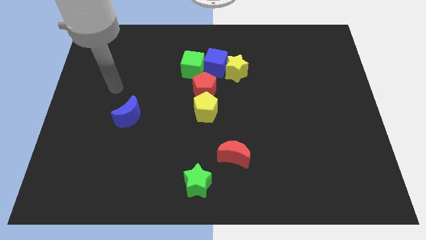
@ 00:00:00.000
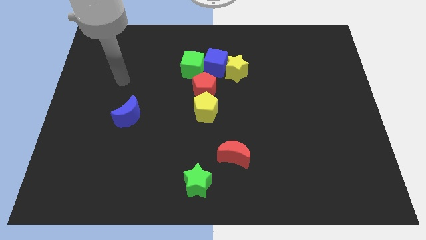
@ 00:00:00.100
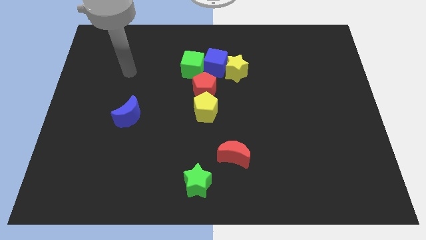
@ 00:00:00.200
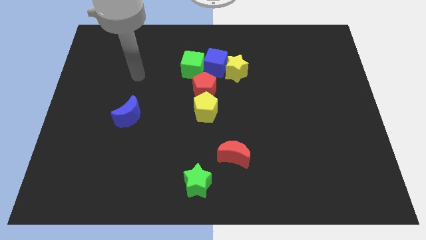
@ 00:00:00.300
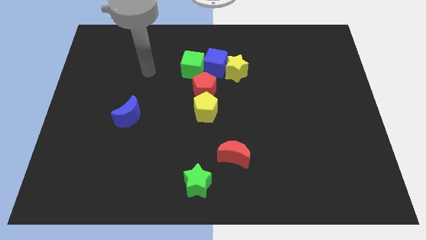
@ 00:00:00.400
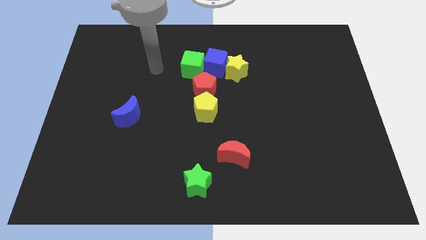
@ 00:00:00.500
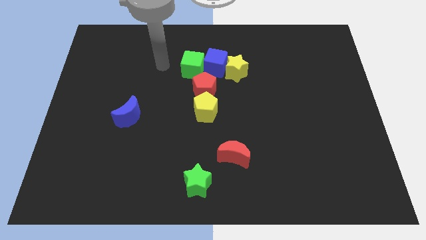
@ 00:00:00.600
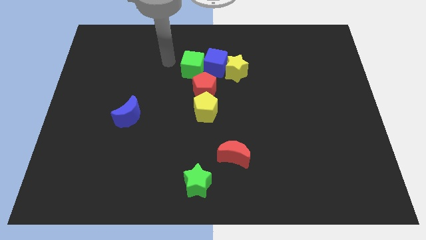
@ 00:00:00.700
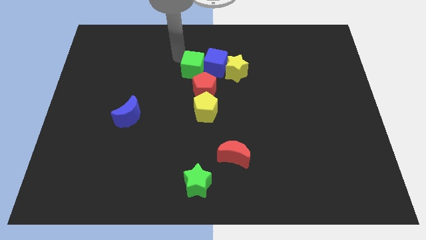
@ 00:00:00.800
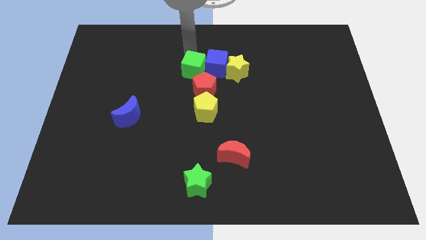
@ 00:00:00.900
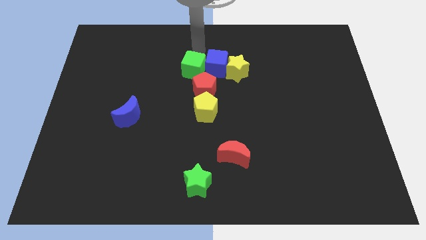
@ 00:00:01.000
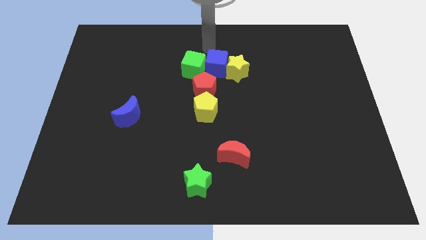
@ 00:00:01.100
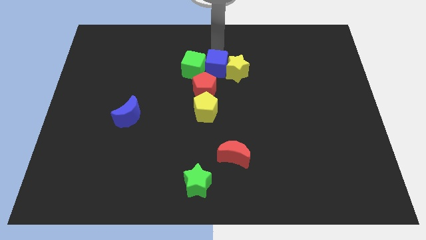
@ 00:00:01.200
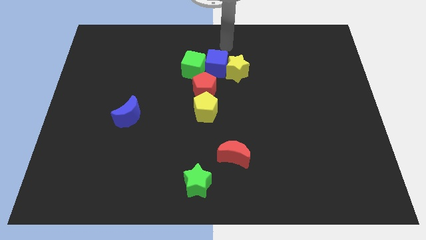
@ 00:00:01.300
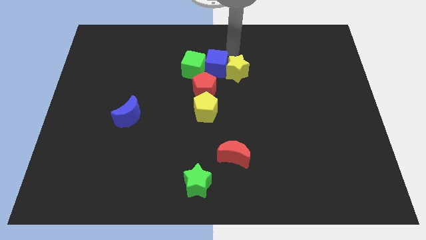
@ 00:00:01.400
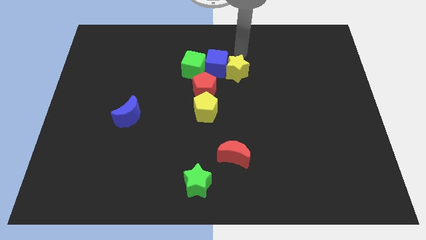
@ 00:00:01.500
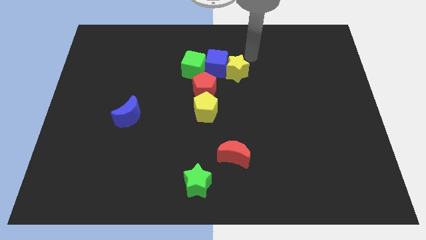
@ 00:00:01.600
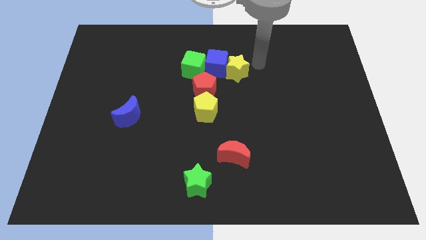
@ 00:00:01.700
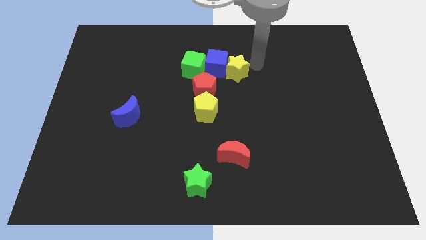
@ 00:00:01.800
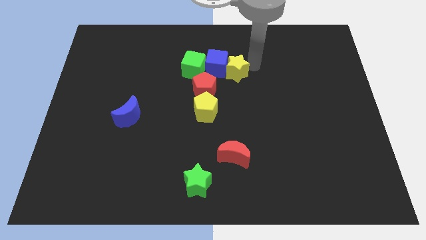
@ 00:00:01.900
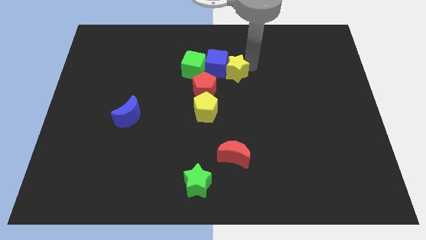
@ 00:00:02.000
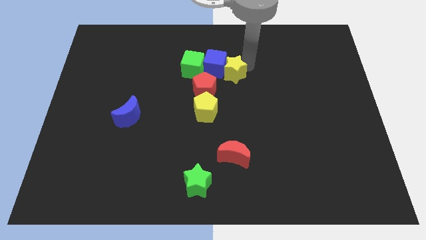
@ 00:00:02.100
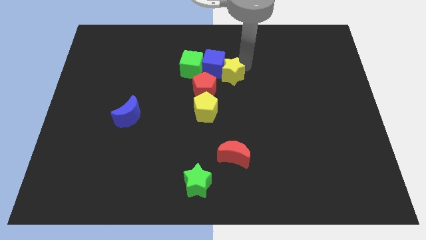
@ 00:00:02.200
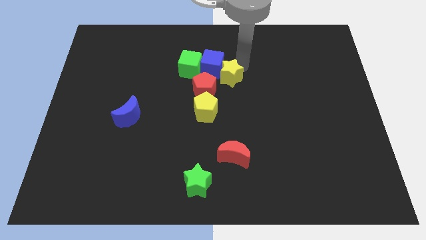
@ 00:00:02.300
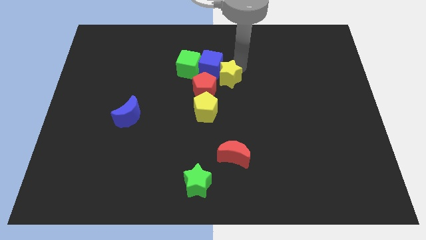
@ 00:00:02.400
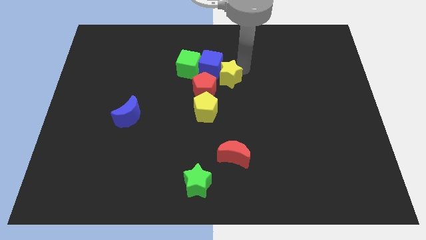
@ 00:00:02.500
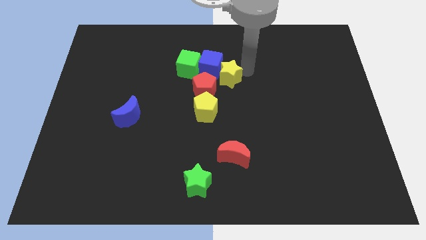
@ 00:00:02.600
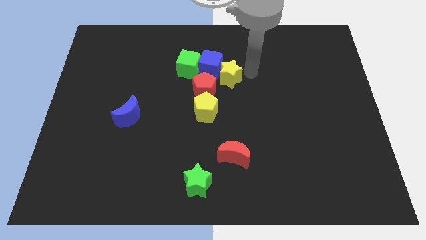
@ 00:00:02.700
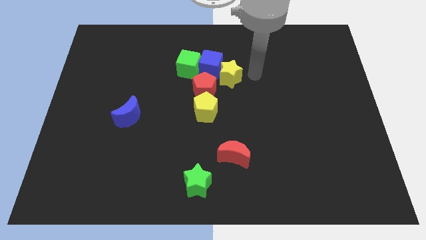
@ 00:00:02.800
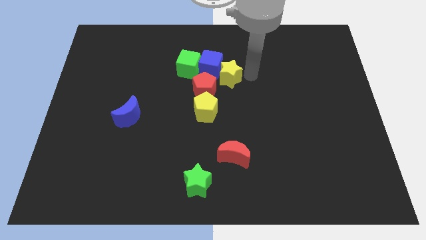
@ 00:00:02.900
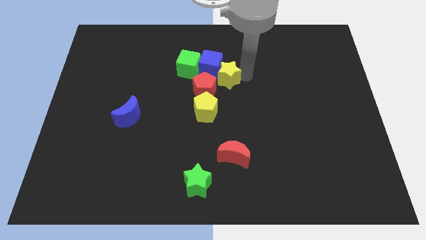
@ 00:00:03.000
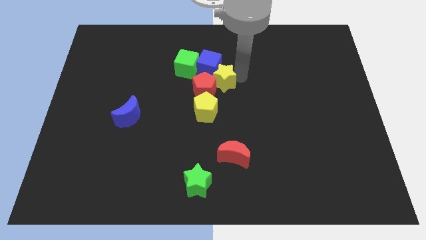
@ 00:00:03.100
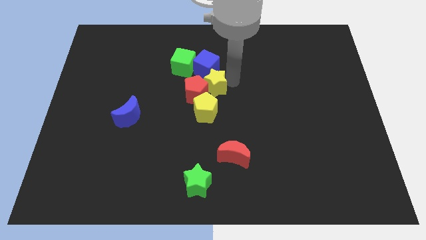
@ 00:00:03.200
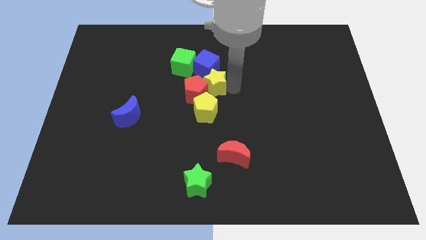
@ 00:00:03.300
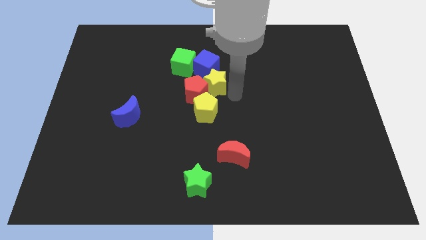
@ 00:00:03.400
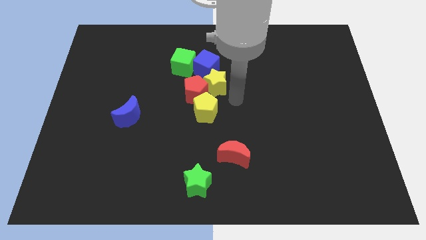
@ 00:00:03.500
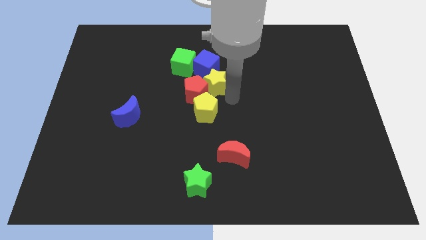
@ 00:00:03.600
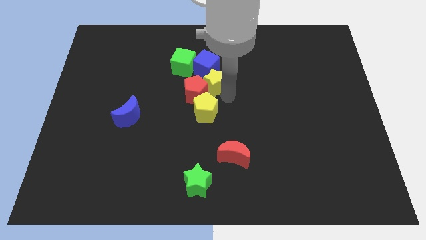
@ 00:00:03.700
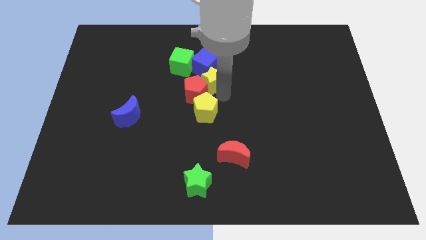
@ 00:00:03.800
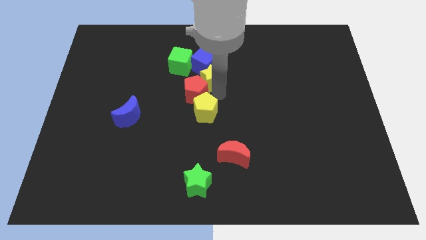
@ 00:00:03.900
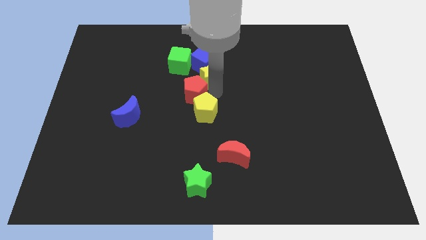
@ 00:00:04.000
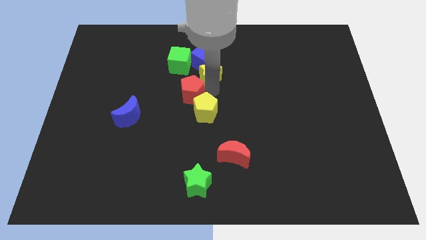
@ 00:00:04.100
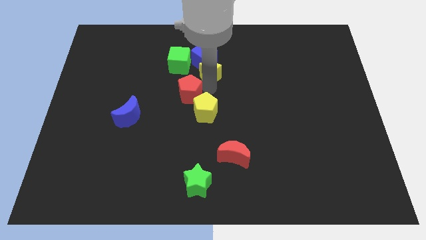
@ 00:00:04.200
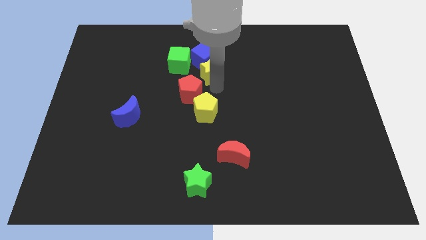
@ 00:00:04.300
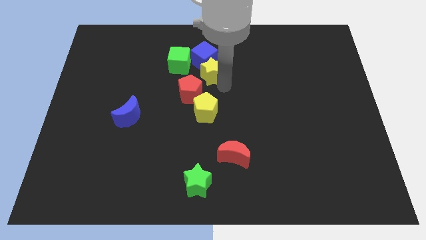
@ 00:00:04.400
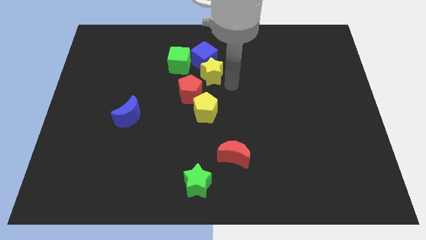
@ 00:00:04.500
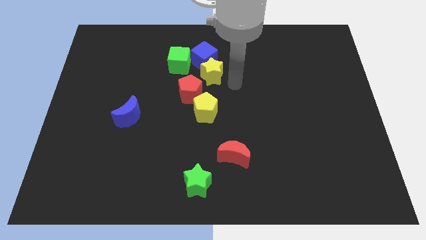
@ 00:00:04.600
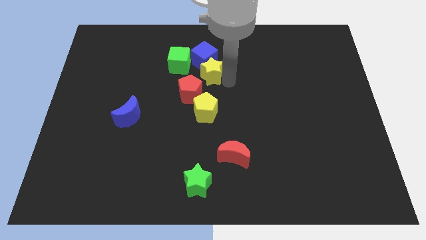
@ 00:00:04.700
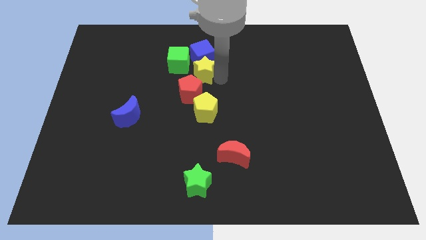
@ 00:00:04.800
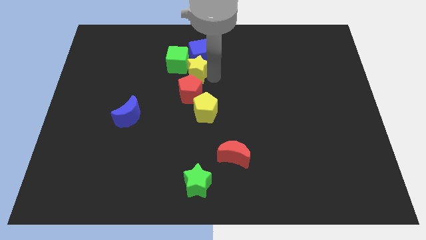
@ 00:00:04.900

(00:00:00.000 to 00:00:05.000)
move the yellow star towards the green cube

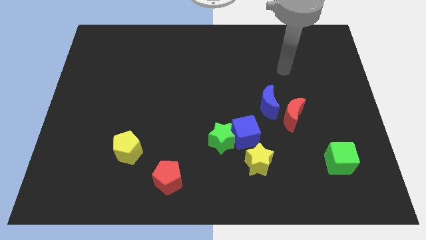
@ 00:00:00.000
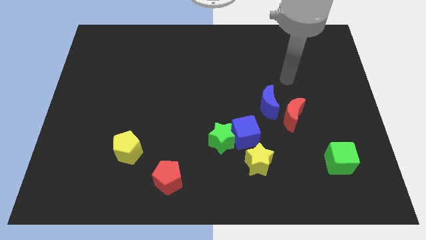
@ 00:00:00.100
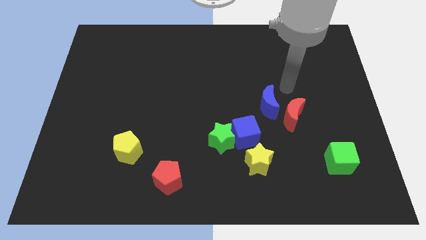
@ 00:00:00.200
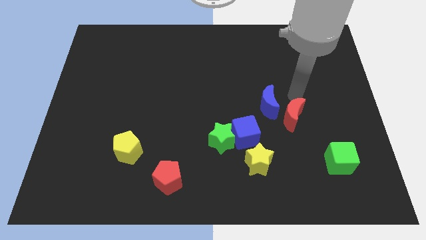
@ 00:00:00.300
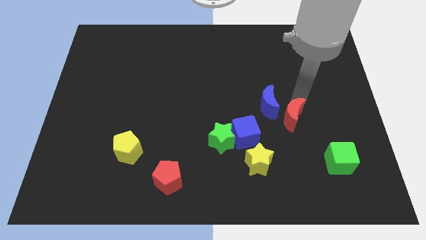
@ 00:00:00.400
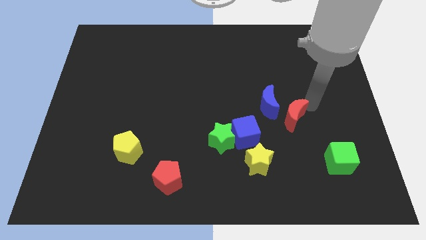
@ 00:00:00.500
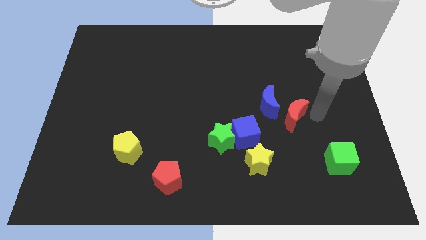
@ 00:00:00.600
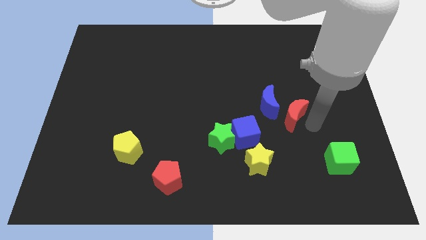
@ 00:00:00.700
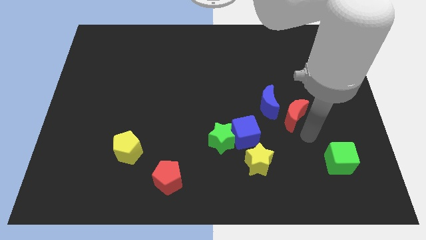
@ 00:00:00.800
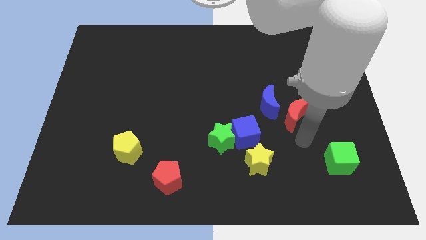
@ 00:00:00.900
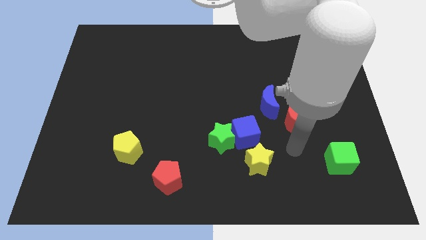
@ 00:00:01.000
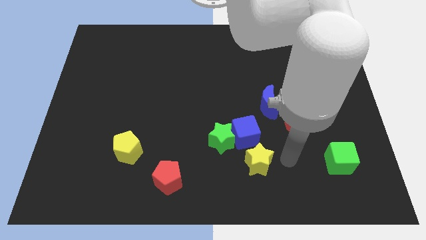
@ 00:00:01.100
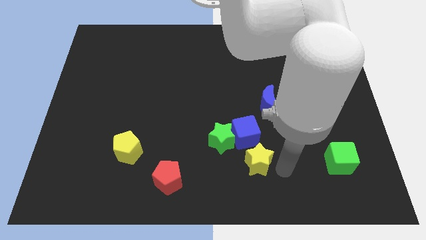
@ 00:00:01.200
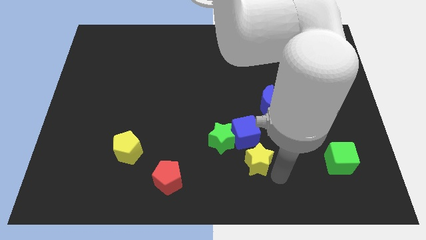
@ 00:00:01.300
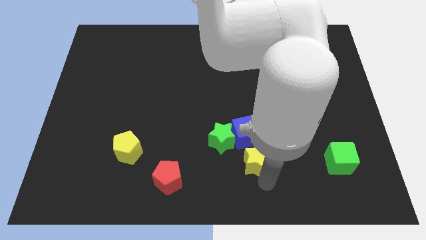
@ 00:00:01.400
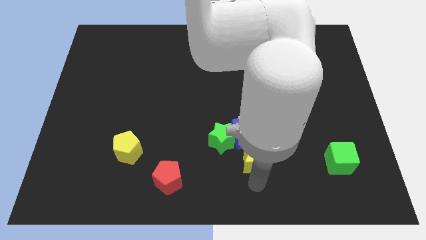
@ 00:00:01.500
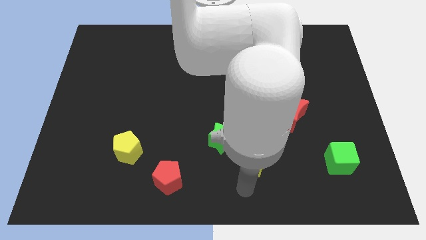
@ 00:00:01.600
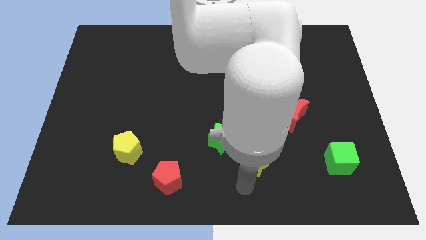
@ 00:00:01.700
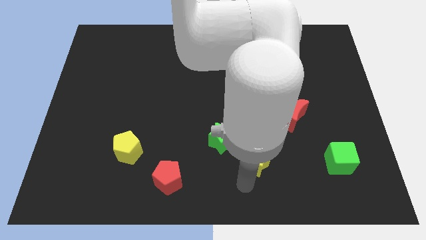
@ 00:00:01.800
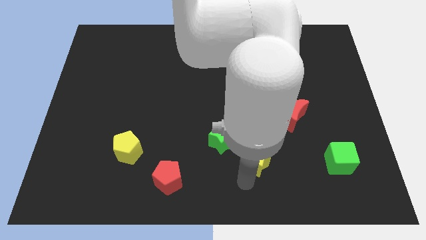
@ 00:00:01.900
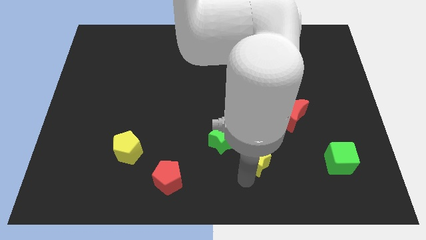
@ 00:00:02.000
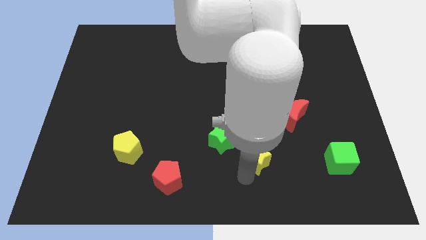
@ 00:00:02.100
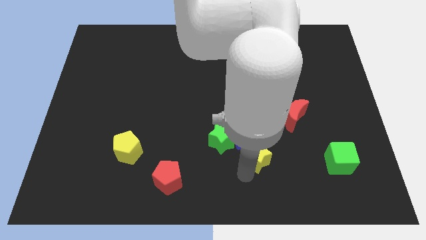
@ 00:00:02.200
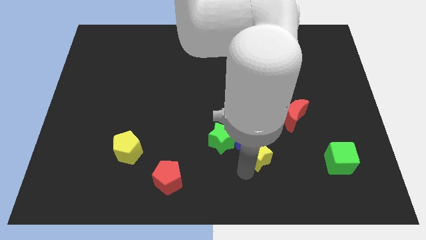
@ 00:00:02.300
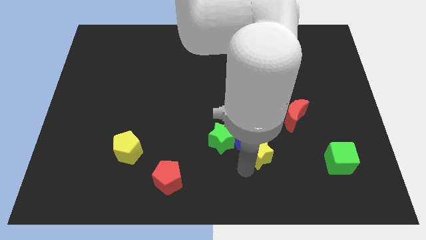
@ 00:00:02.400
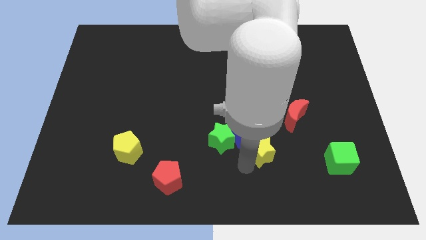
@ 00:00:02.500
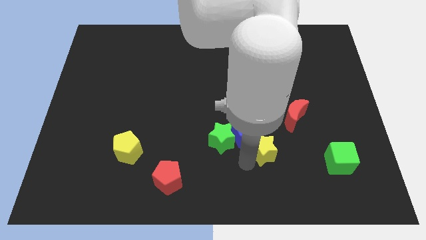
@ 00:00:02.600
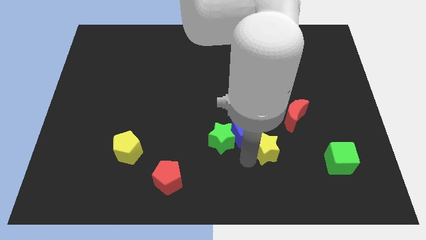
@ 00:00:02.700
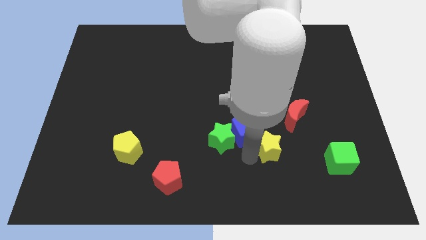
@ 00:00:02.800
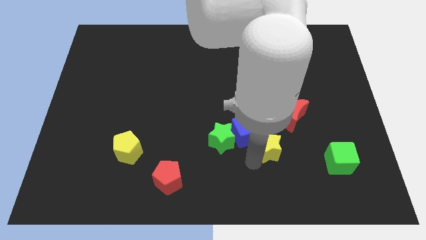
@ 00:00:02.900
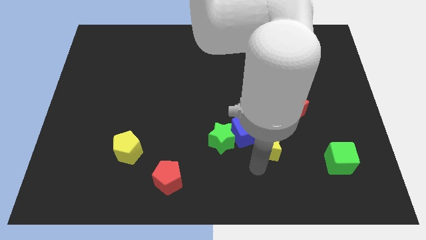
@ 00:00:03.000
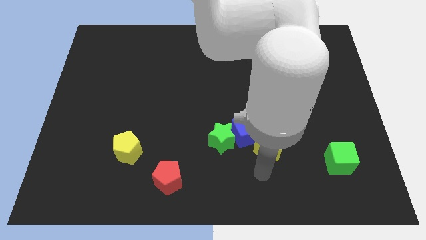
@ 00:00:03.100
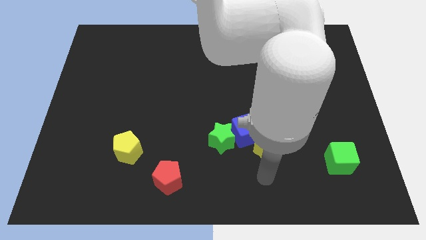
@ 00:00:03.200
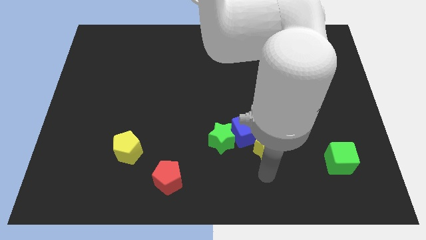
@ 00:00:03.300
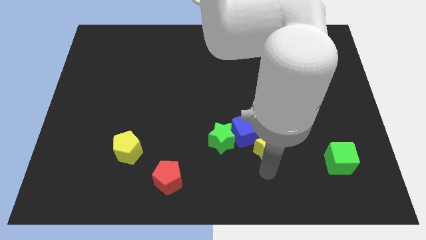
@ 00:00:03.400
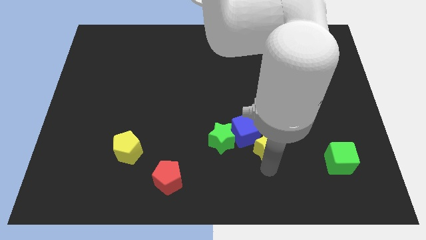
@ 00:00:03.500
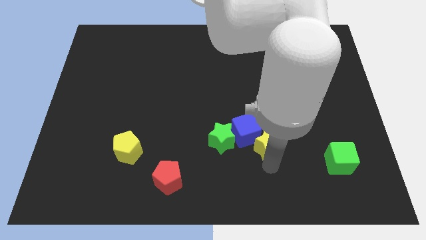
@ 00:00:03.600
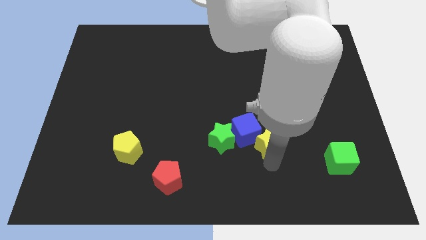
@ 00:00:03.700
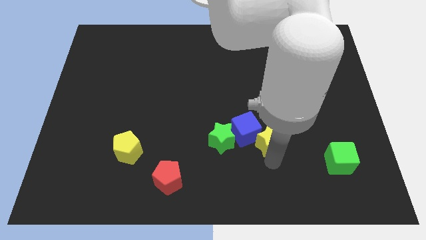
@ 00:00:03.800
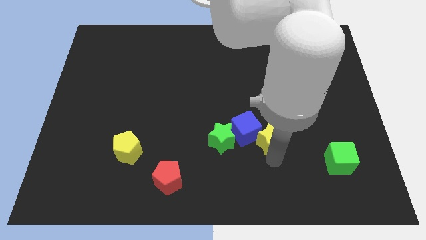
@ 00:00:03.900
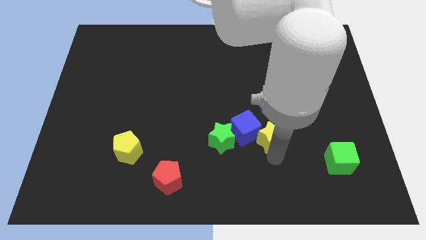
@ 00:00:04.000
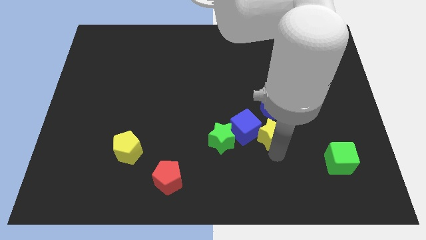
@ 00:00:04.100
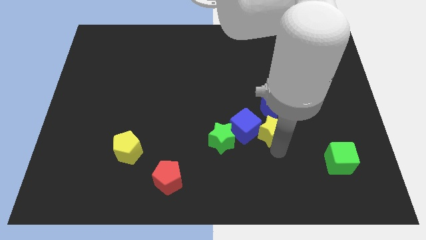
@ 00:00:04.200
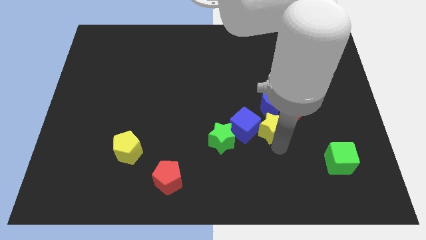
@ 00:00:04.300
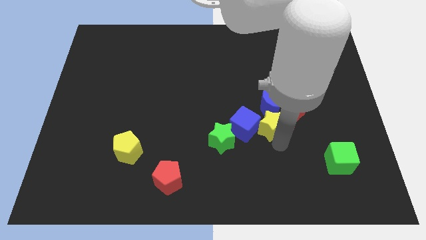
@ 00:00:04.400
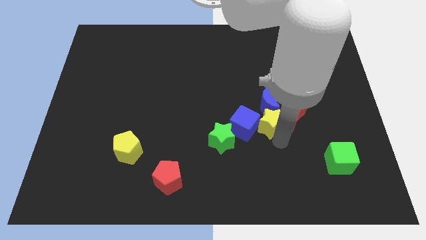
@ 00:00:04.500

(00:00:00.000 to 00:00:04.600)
slide the yellow star to the blue moon
